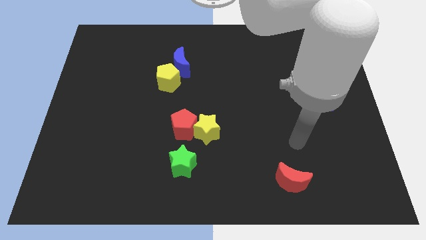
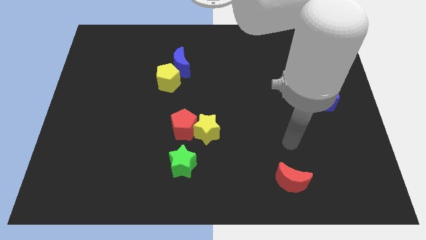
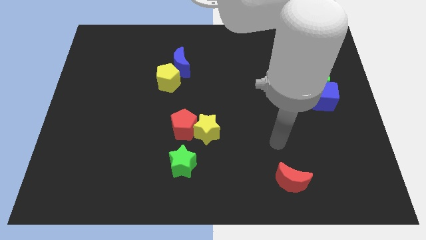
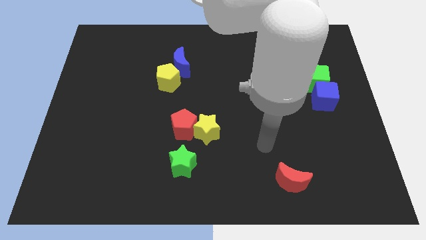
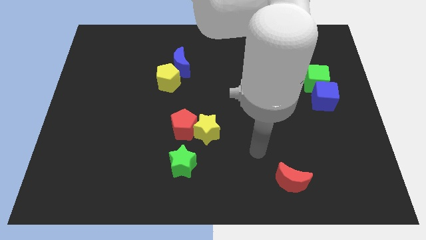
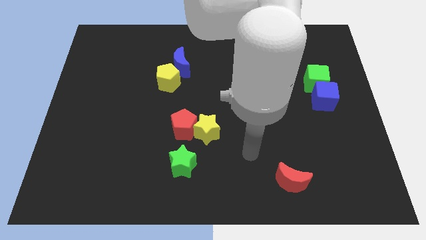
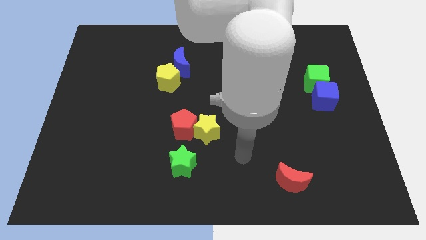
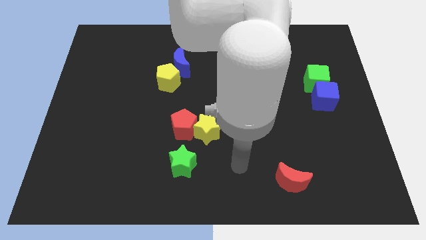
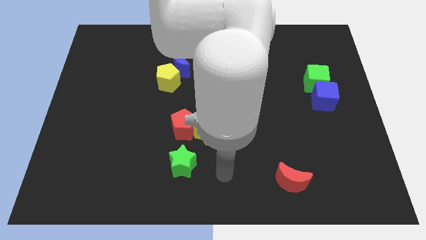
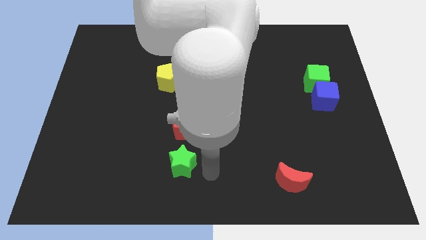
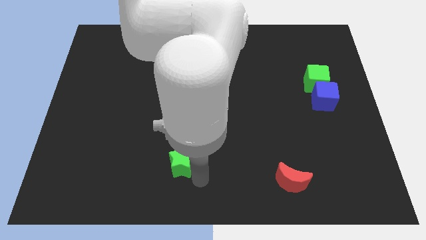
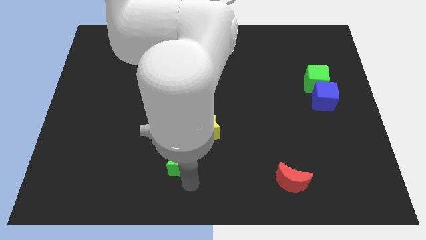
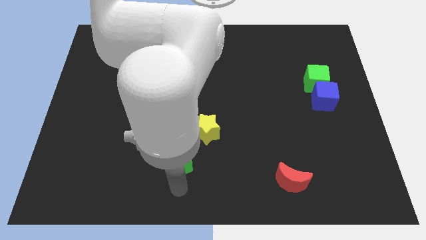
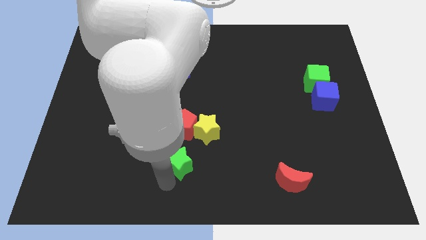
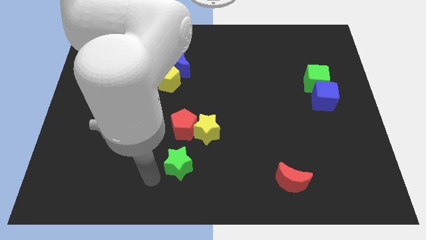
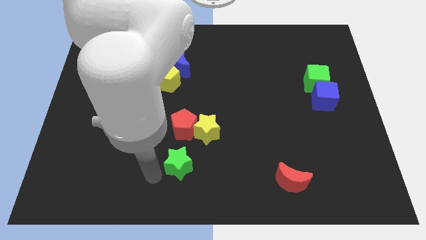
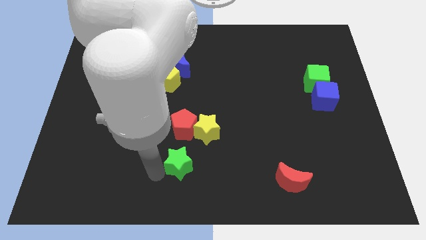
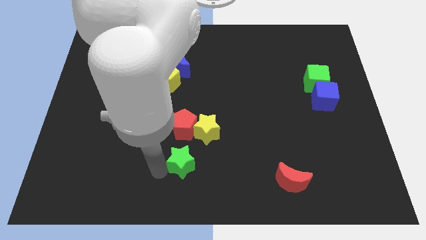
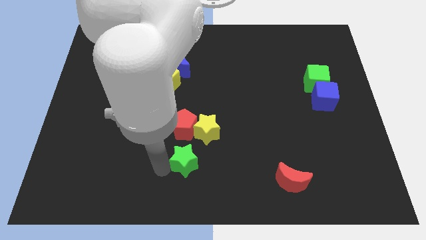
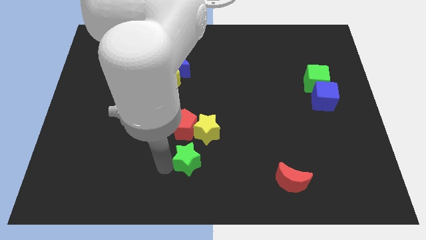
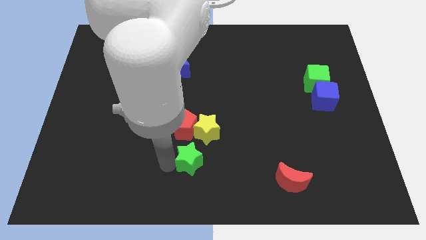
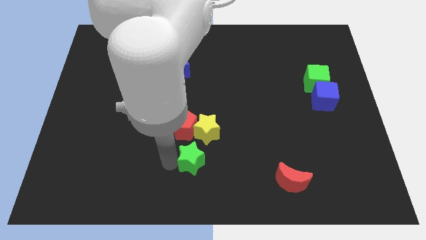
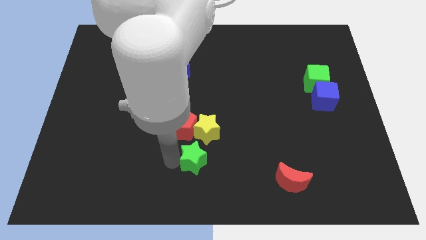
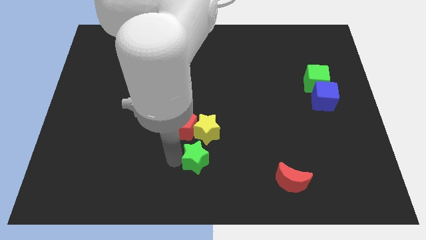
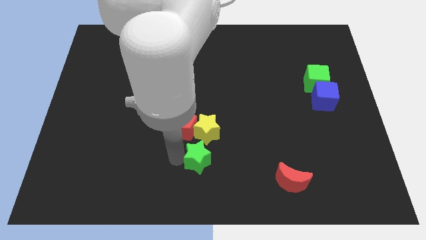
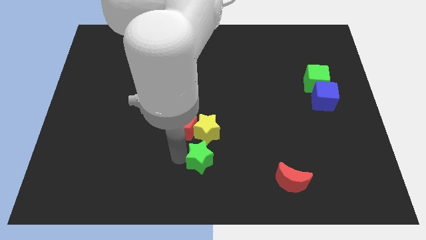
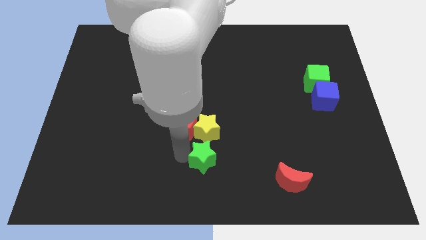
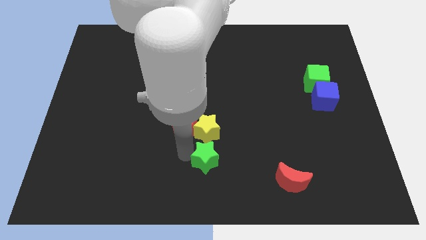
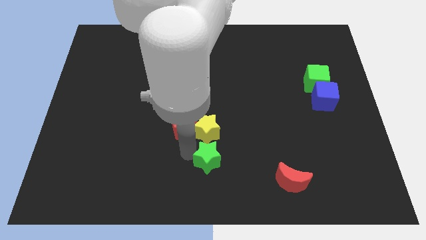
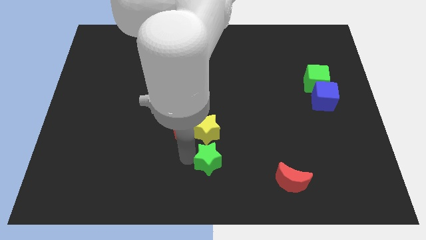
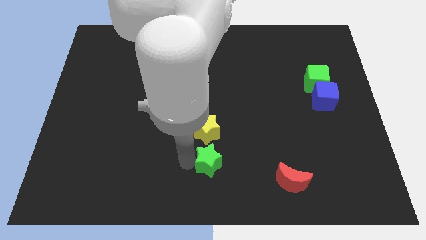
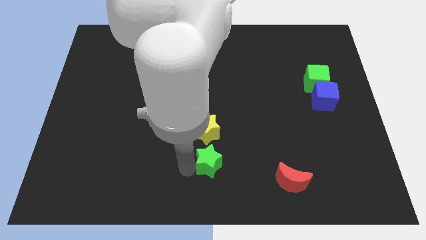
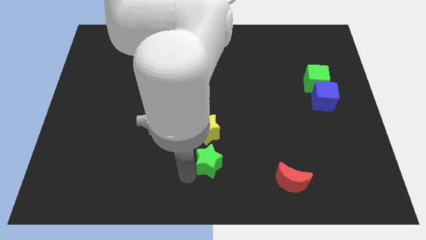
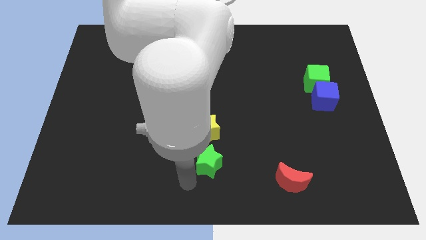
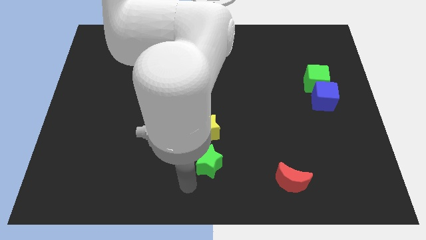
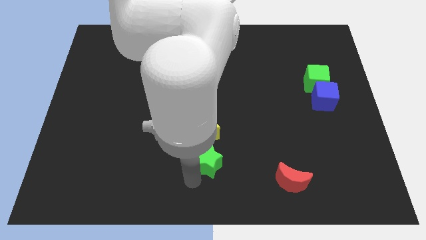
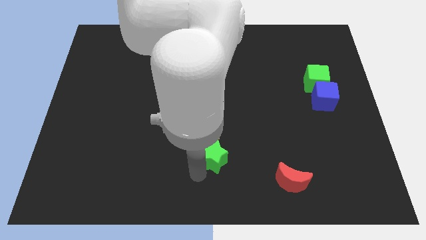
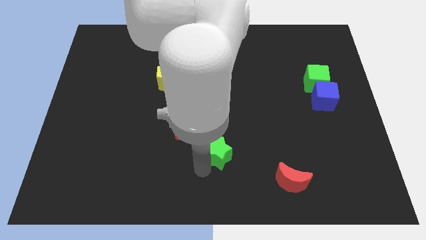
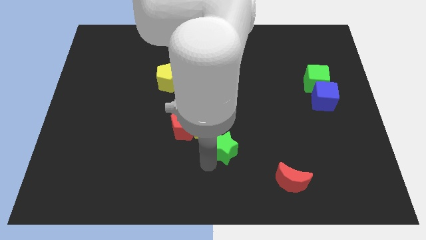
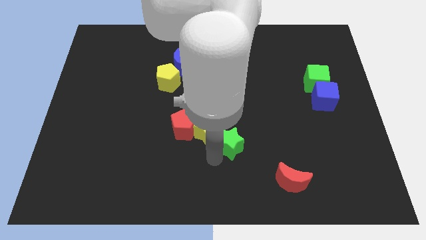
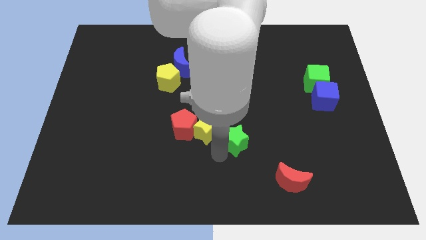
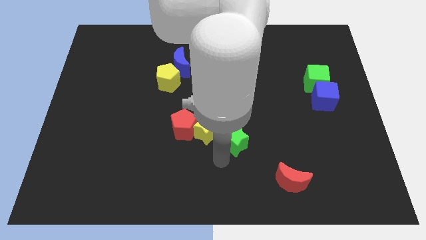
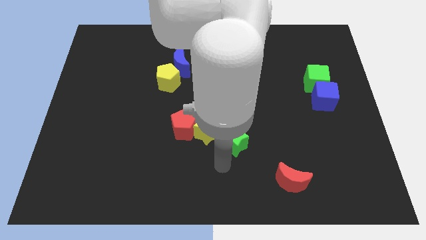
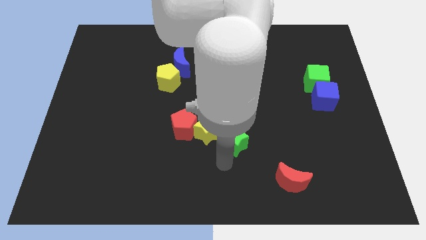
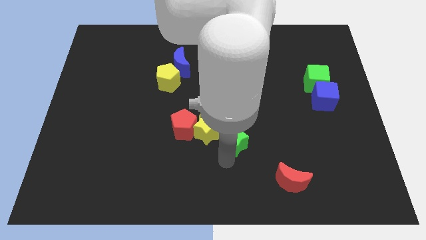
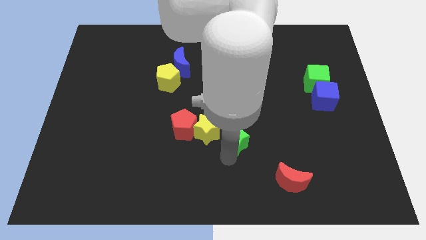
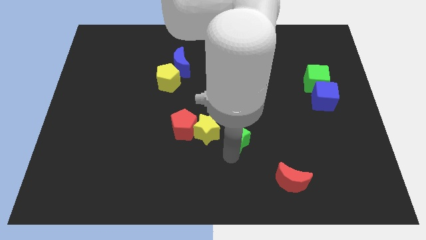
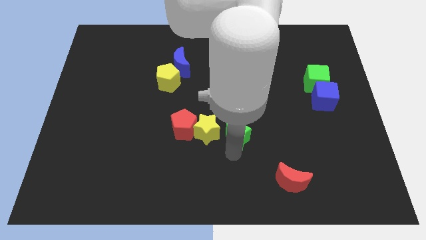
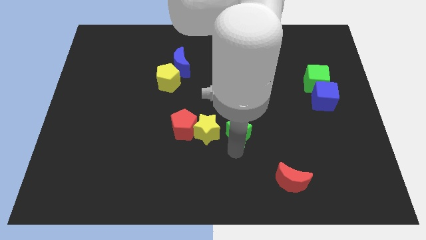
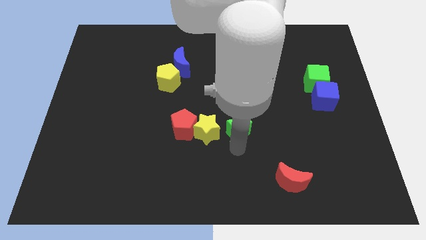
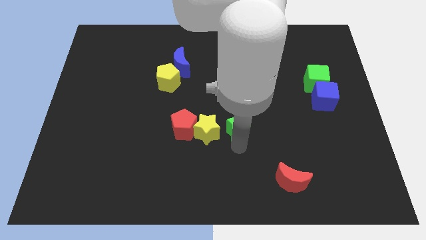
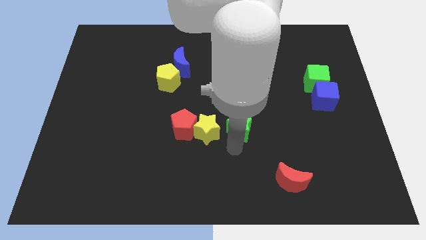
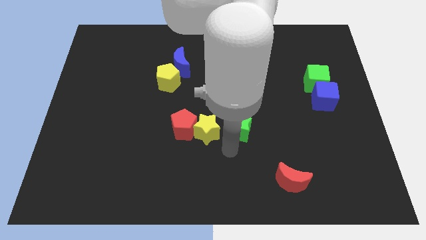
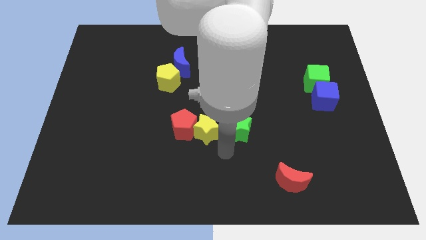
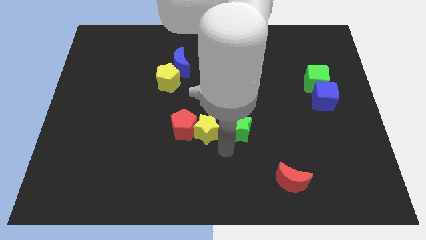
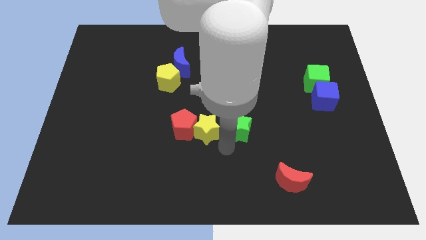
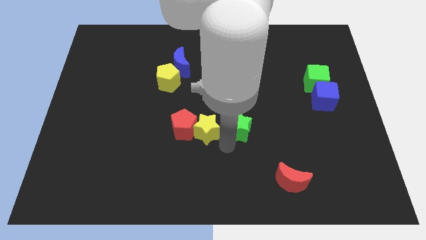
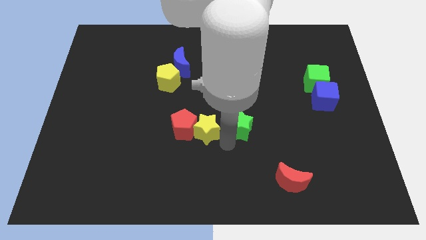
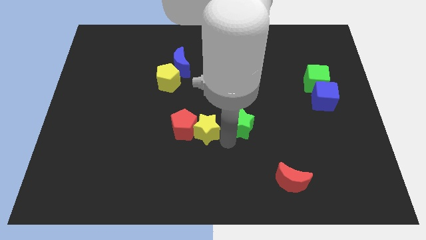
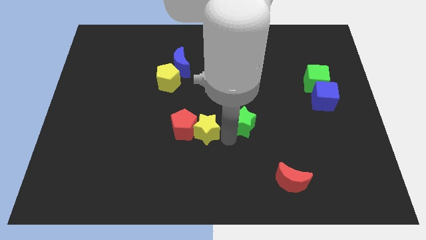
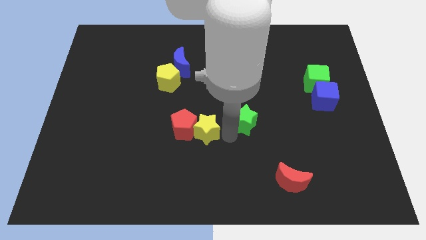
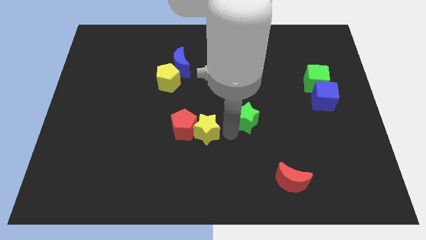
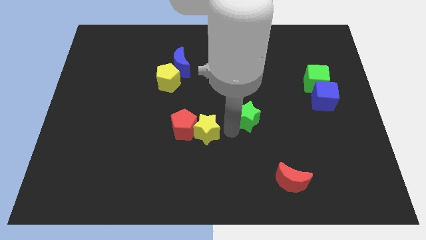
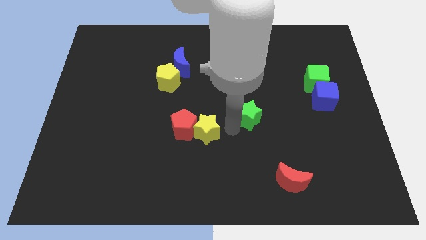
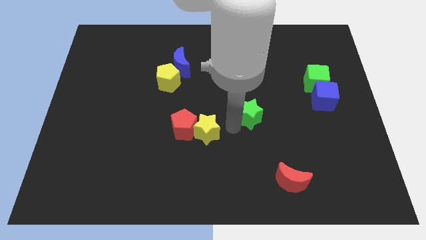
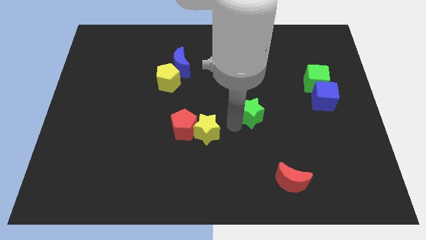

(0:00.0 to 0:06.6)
slide the green star upwards and then right

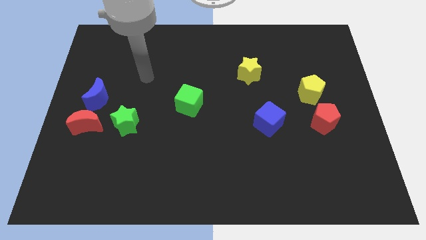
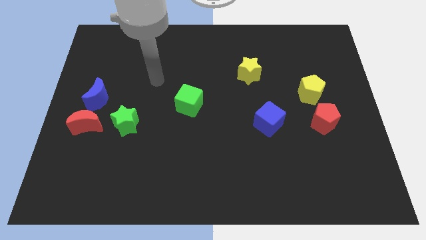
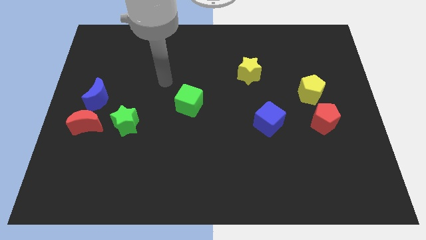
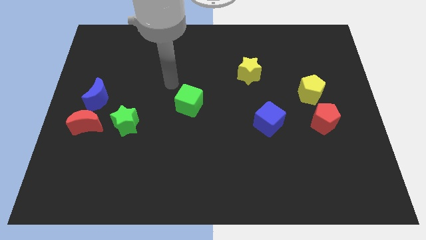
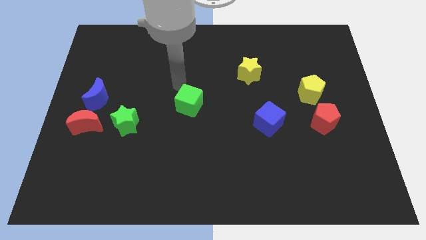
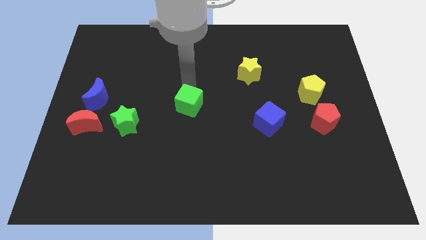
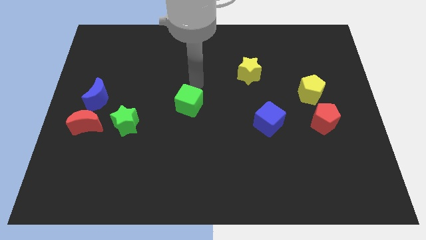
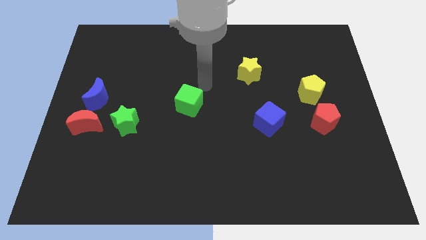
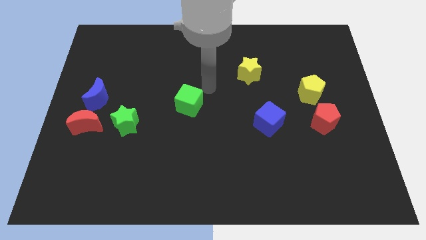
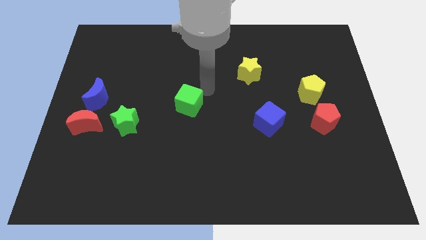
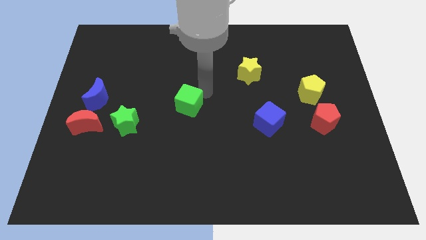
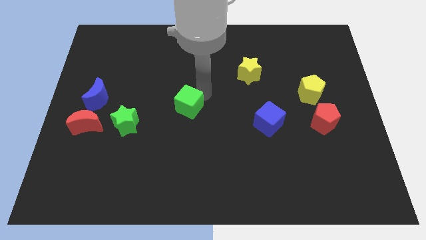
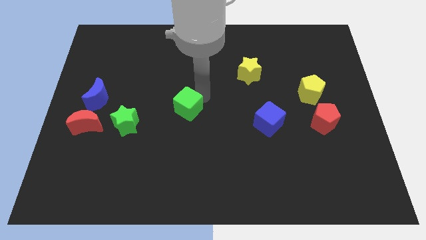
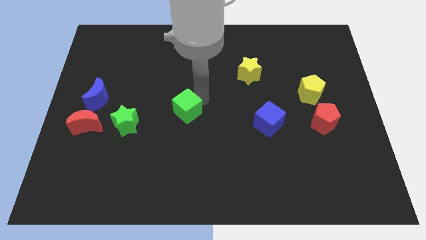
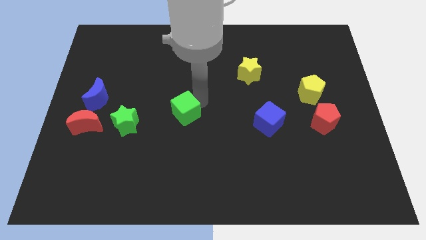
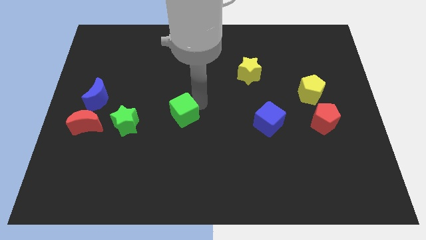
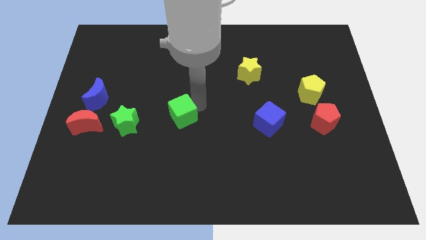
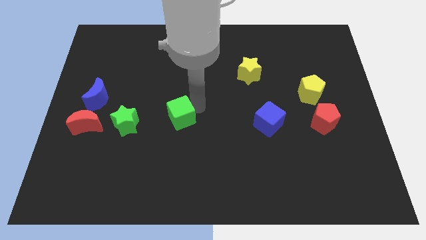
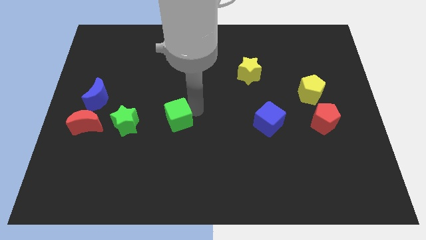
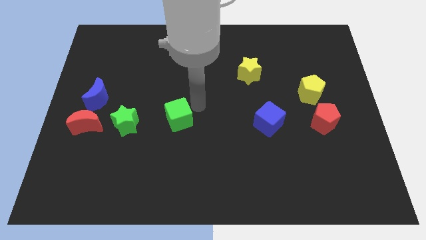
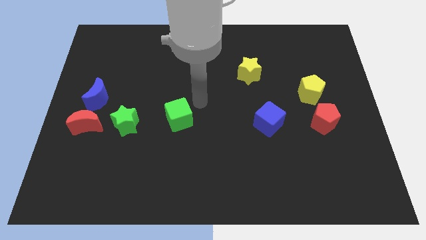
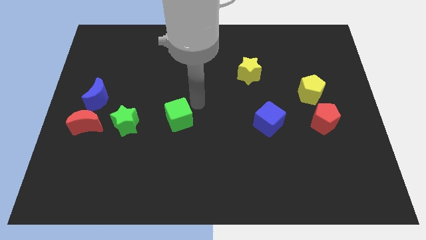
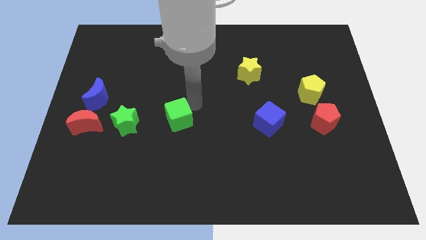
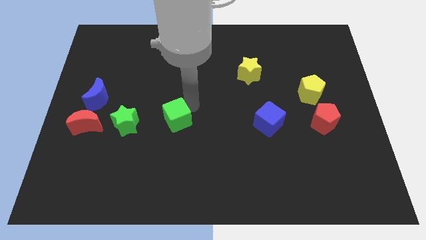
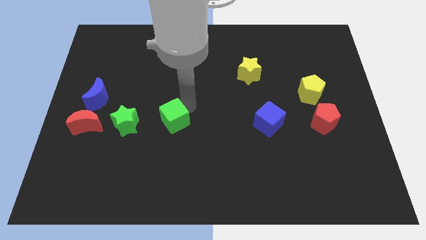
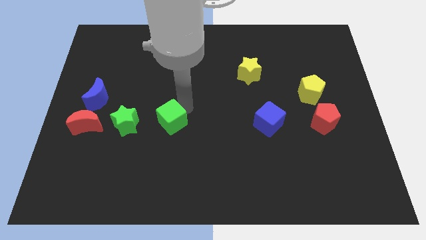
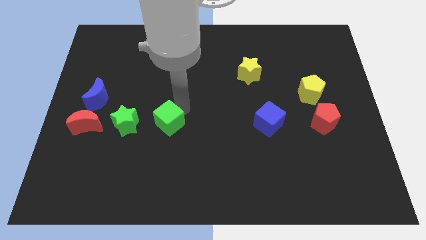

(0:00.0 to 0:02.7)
push the green cube somewhat down and then left
